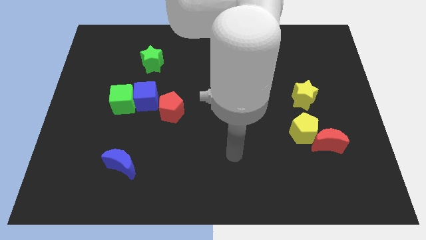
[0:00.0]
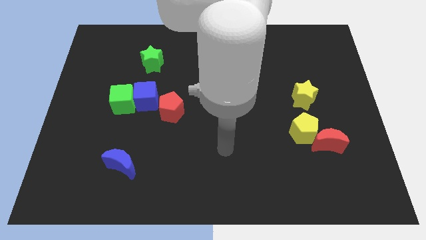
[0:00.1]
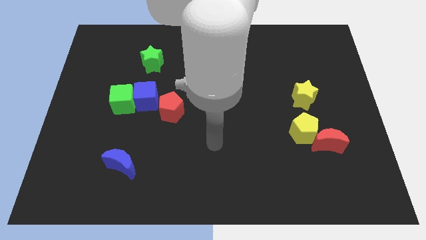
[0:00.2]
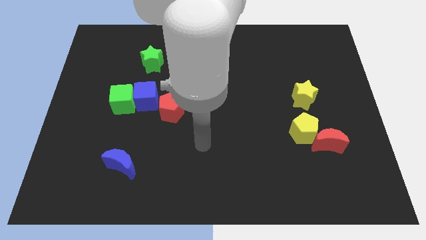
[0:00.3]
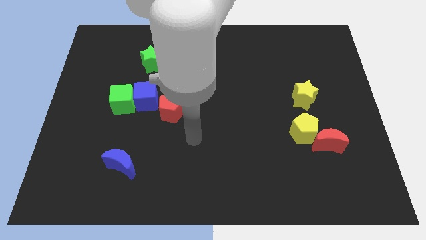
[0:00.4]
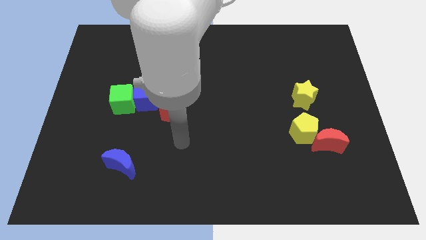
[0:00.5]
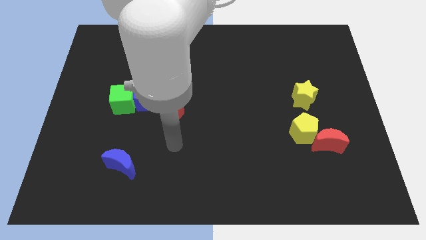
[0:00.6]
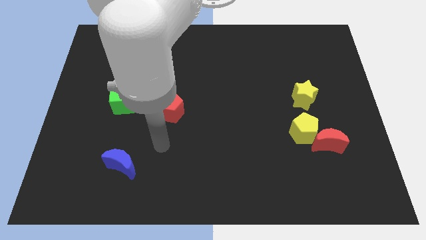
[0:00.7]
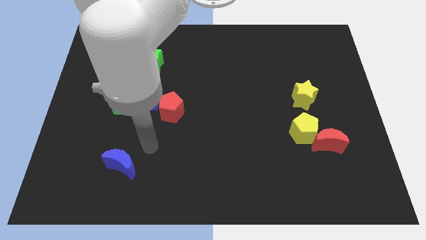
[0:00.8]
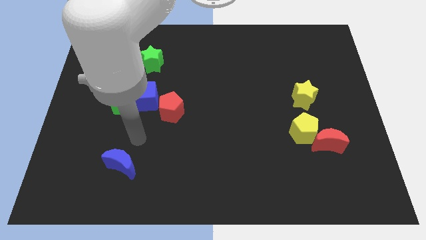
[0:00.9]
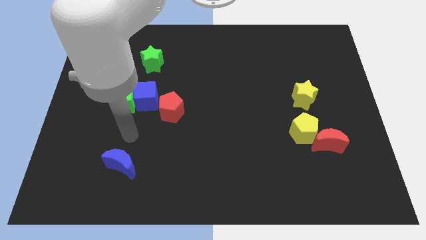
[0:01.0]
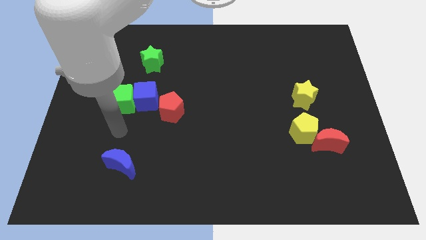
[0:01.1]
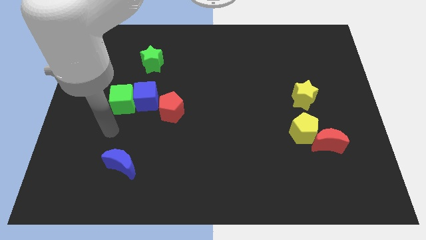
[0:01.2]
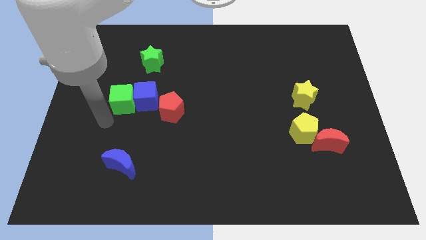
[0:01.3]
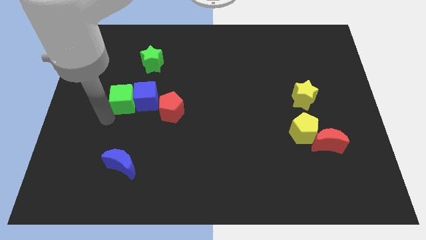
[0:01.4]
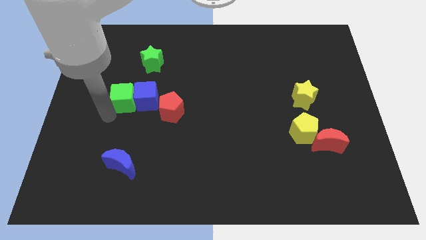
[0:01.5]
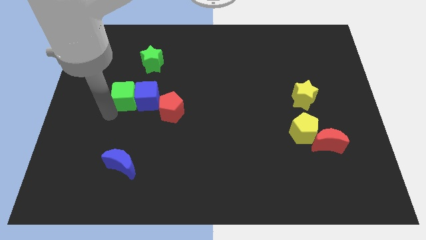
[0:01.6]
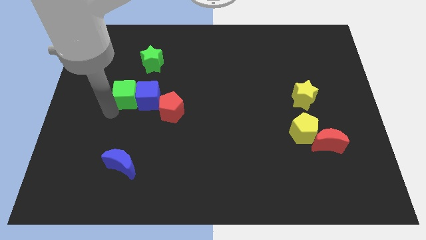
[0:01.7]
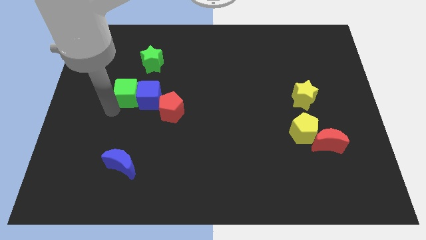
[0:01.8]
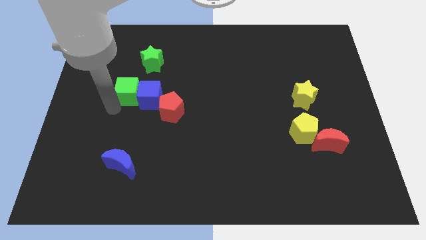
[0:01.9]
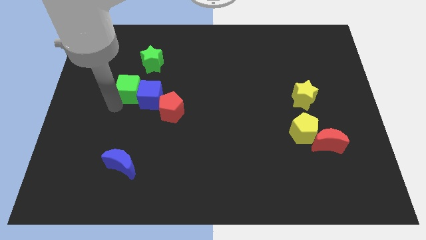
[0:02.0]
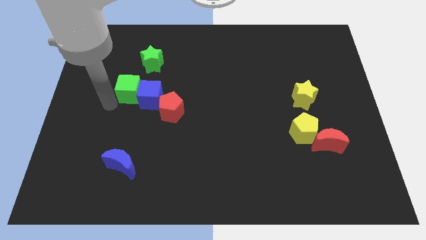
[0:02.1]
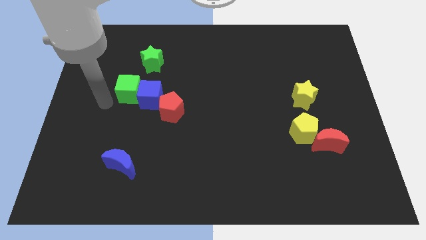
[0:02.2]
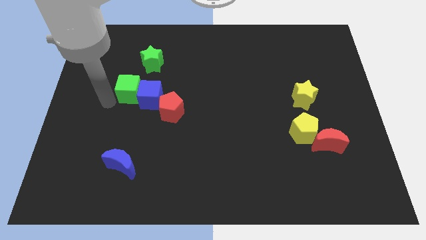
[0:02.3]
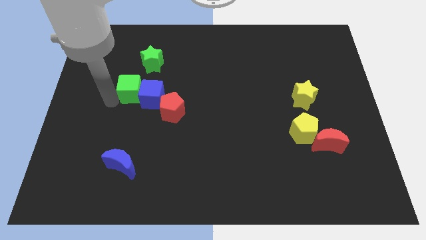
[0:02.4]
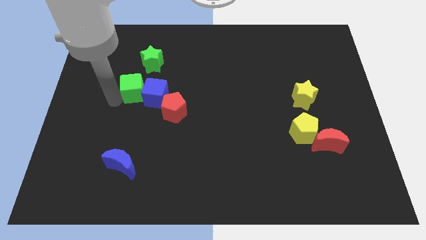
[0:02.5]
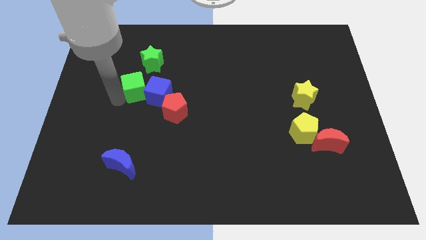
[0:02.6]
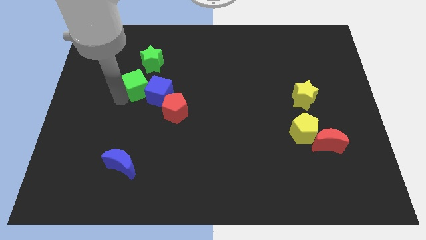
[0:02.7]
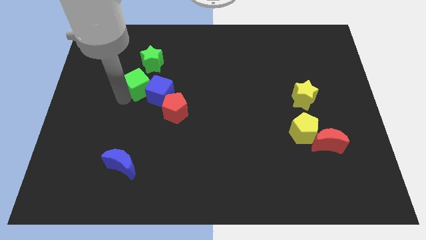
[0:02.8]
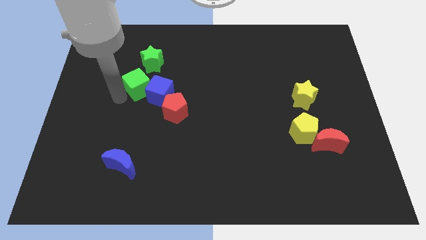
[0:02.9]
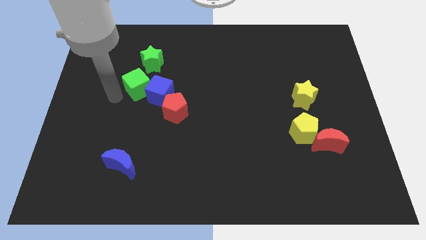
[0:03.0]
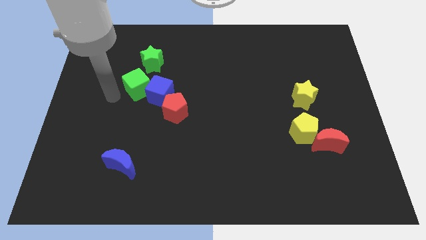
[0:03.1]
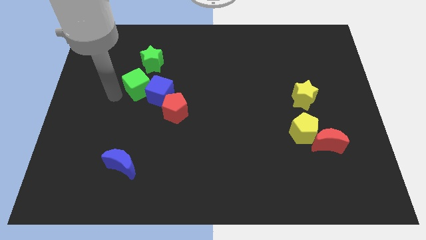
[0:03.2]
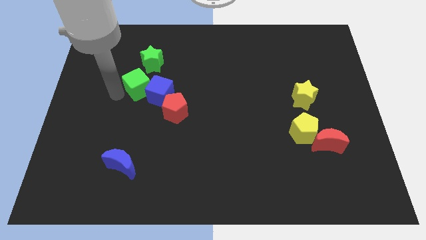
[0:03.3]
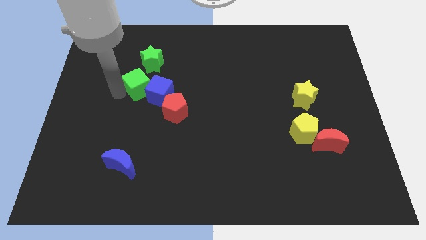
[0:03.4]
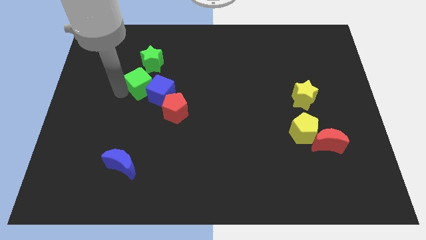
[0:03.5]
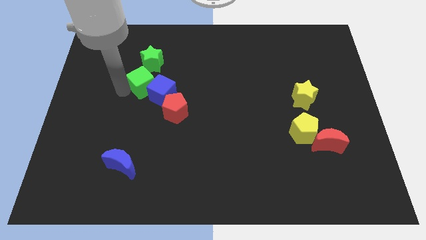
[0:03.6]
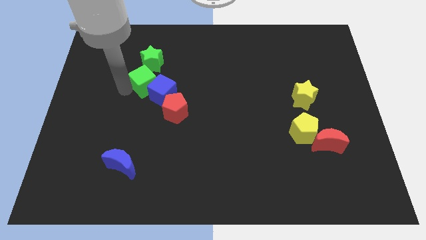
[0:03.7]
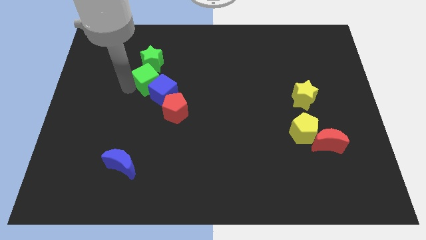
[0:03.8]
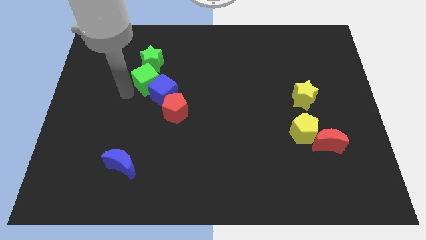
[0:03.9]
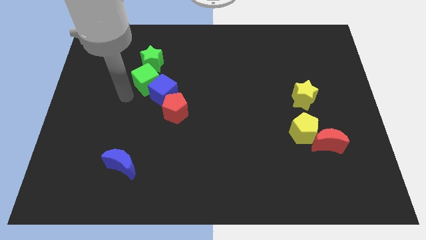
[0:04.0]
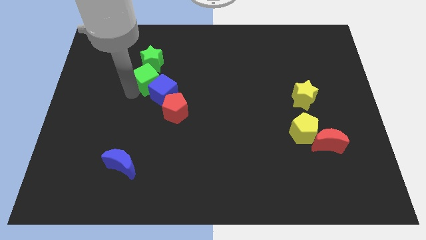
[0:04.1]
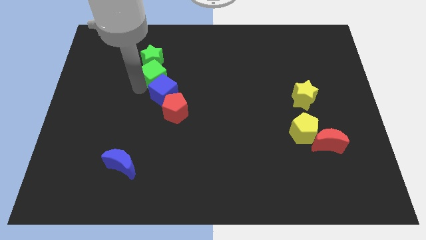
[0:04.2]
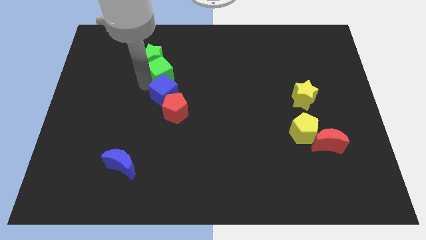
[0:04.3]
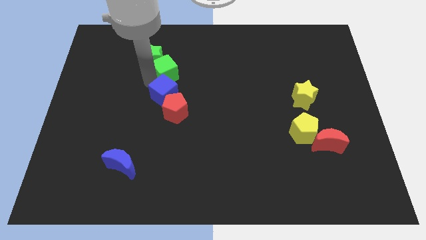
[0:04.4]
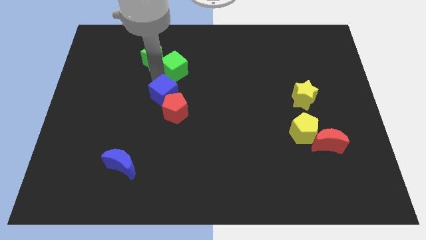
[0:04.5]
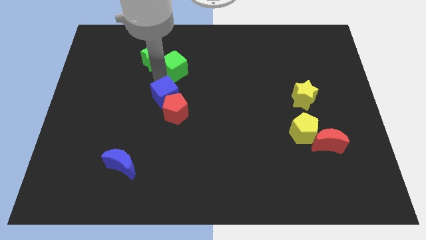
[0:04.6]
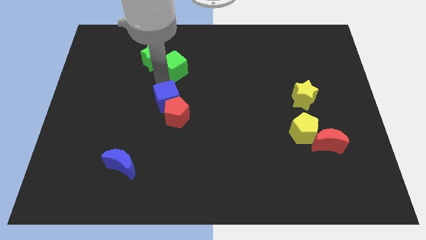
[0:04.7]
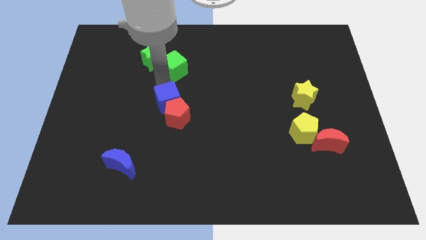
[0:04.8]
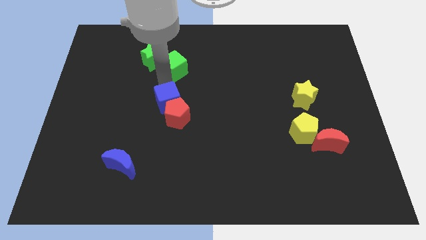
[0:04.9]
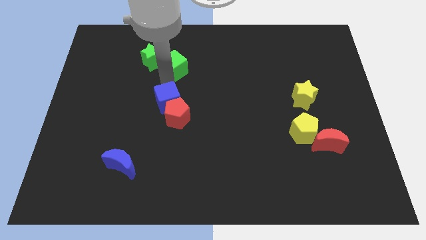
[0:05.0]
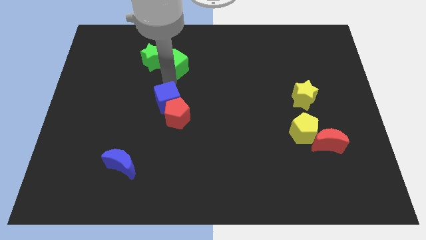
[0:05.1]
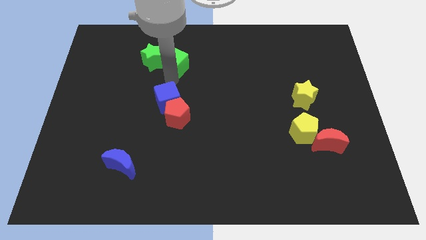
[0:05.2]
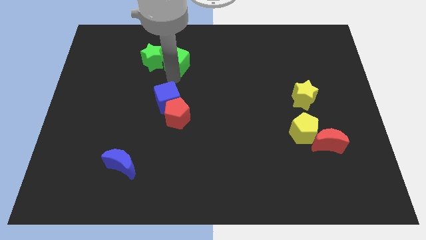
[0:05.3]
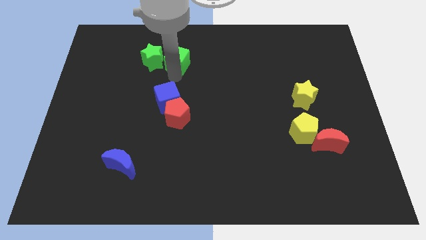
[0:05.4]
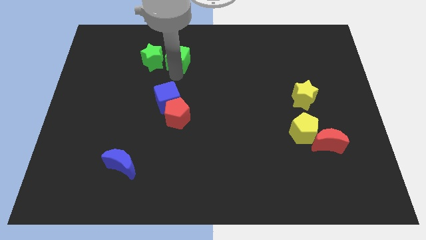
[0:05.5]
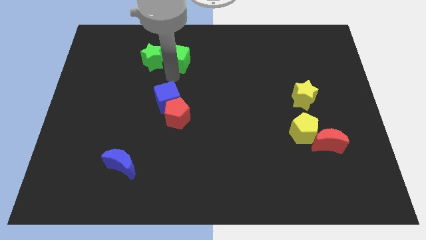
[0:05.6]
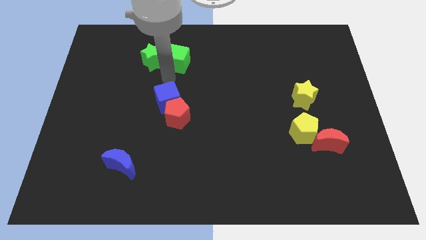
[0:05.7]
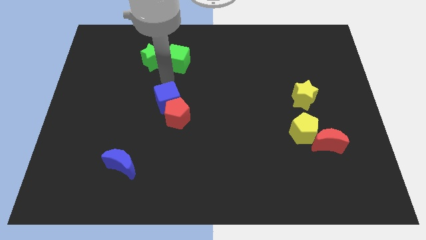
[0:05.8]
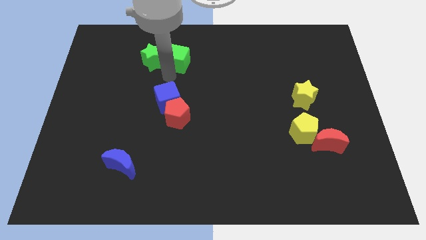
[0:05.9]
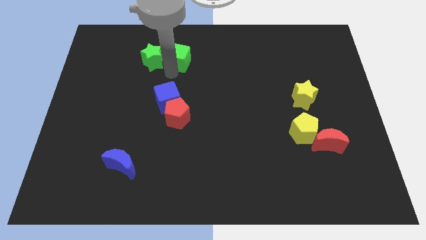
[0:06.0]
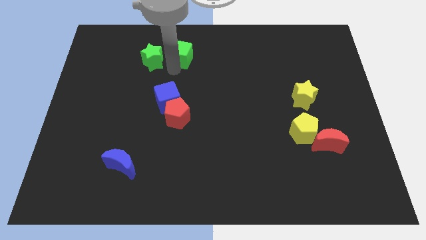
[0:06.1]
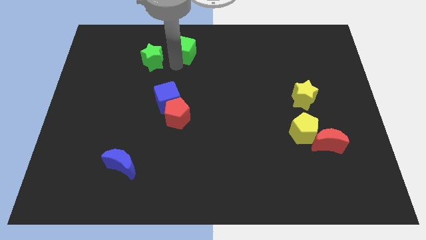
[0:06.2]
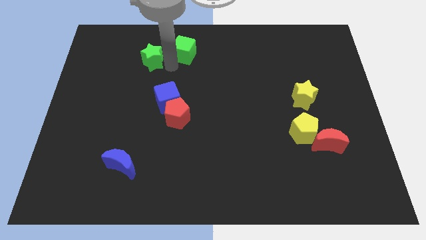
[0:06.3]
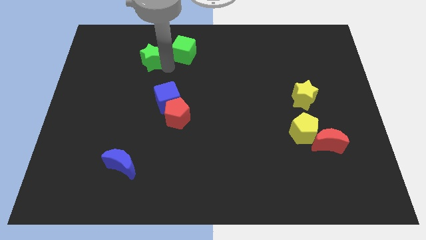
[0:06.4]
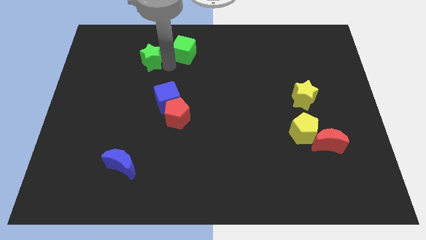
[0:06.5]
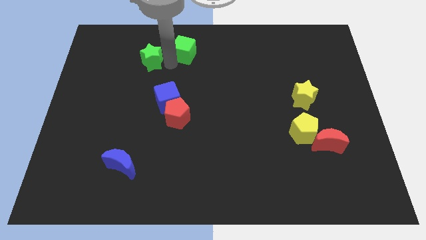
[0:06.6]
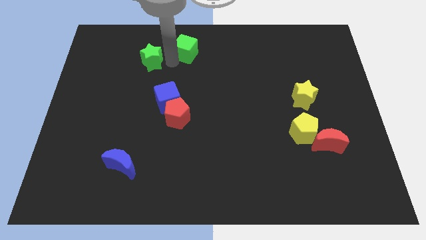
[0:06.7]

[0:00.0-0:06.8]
move the green cube to the top

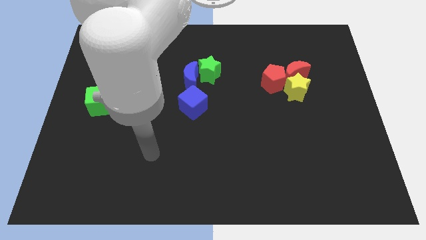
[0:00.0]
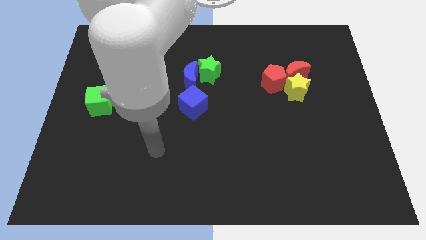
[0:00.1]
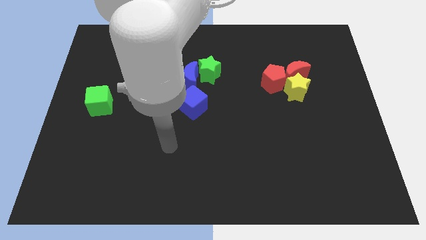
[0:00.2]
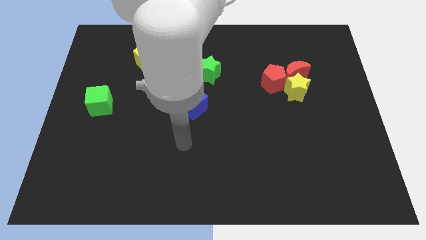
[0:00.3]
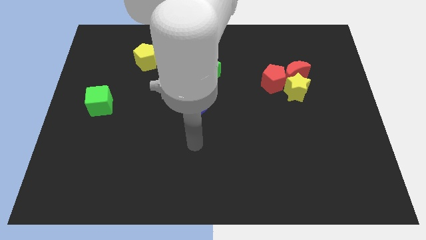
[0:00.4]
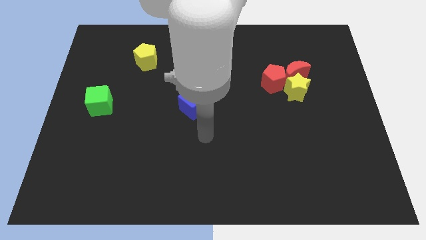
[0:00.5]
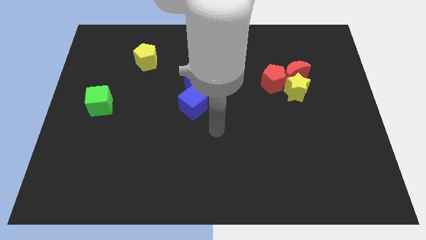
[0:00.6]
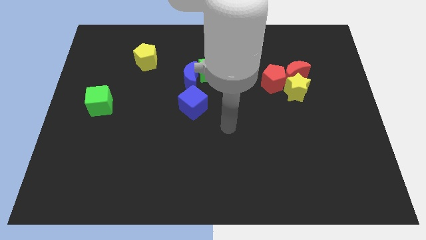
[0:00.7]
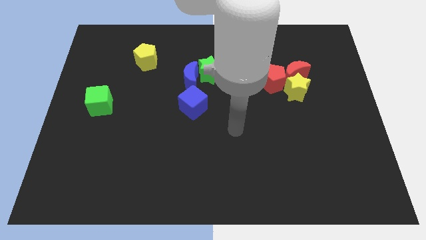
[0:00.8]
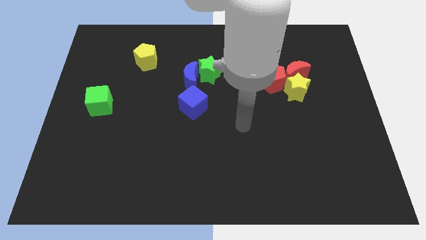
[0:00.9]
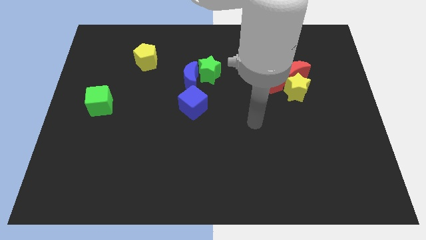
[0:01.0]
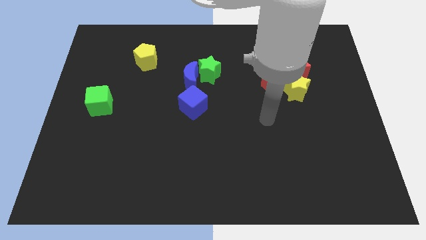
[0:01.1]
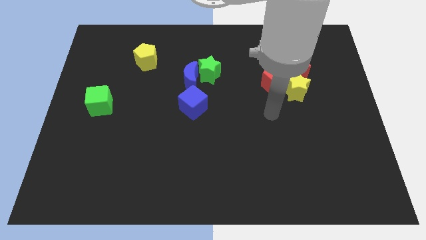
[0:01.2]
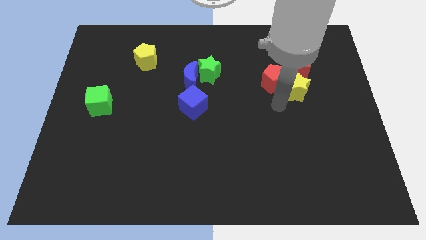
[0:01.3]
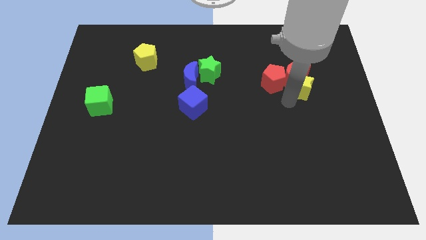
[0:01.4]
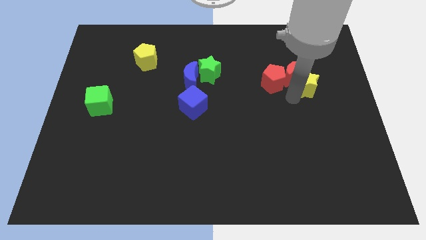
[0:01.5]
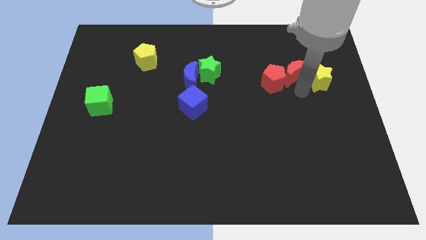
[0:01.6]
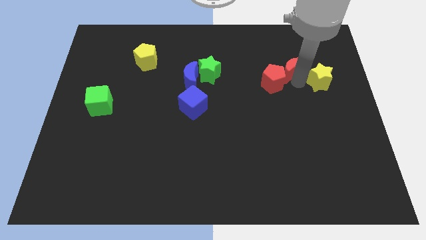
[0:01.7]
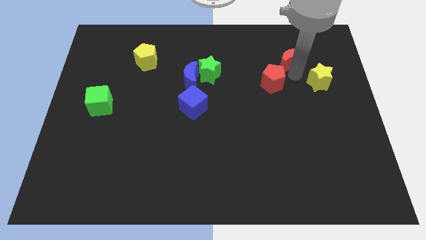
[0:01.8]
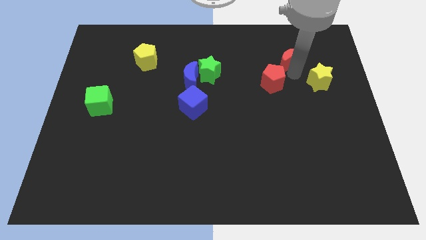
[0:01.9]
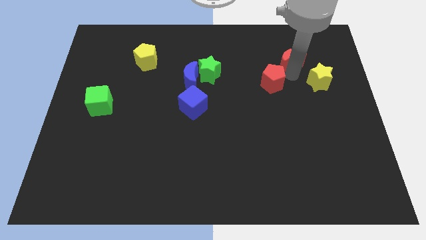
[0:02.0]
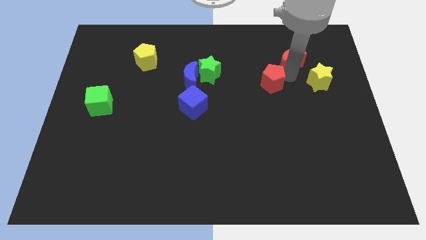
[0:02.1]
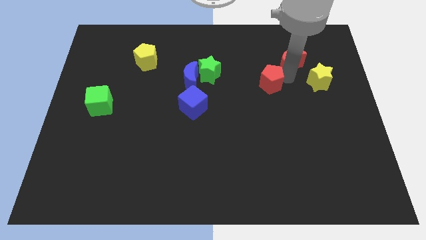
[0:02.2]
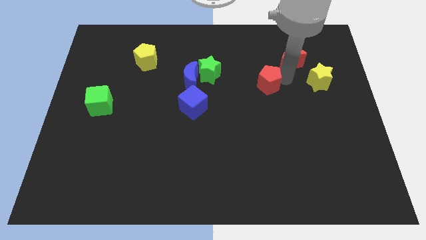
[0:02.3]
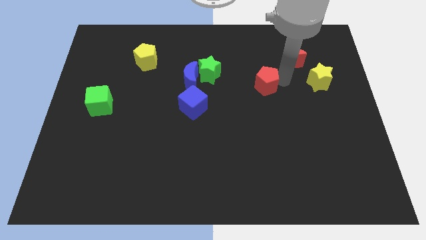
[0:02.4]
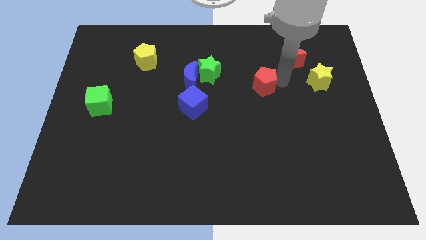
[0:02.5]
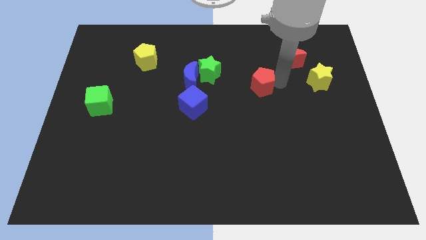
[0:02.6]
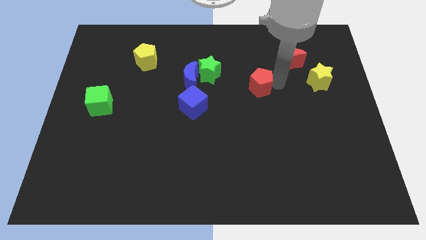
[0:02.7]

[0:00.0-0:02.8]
put the red pentagon to the middle
